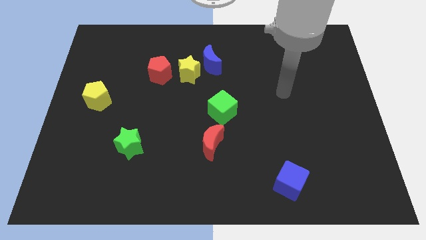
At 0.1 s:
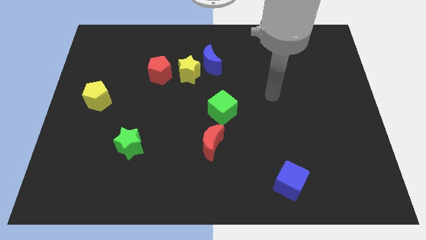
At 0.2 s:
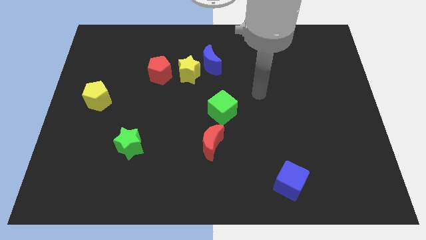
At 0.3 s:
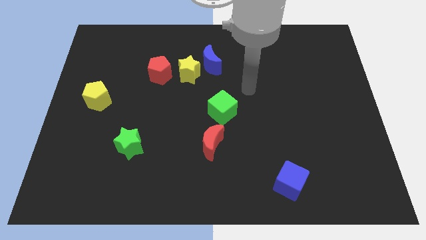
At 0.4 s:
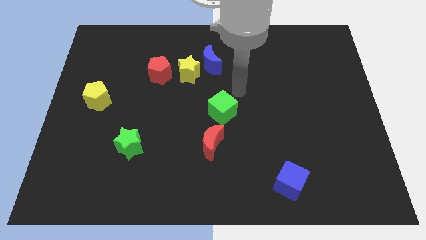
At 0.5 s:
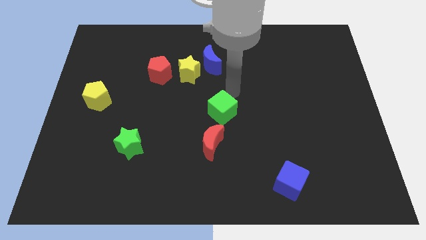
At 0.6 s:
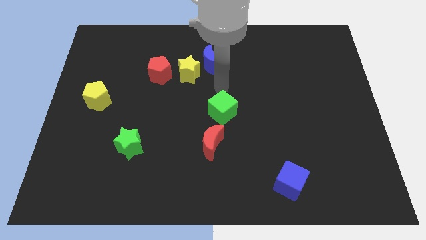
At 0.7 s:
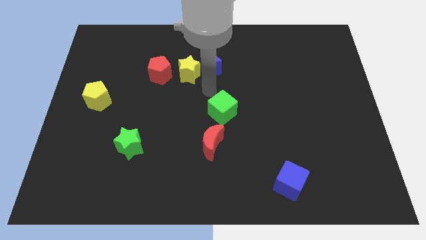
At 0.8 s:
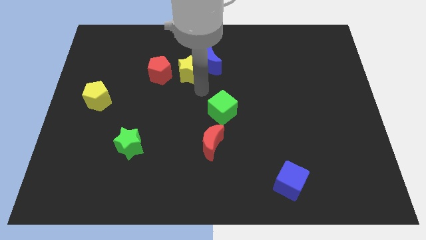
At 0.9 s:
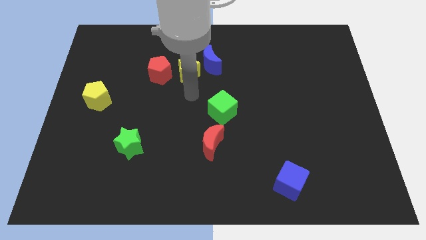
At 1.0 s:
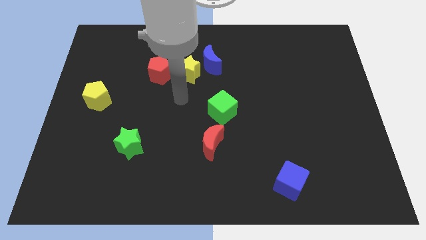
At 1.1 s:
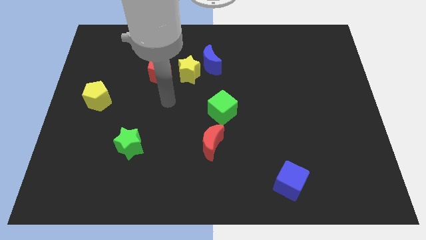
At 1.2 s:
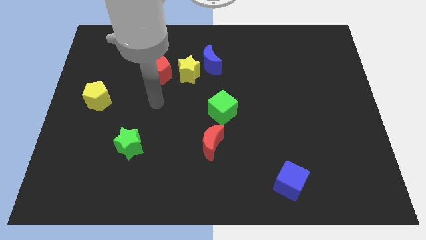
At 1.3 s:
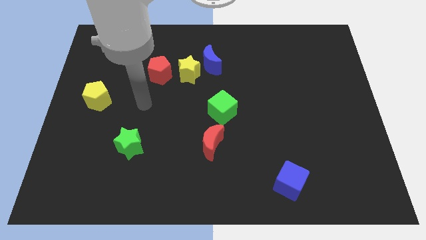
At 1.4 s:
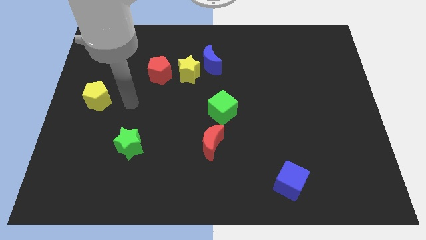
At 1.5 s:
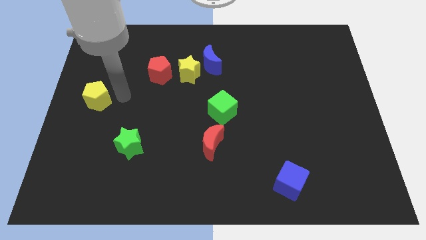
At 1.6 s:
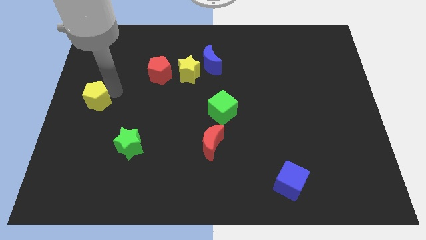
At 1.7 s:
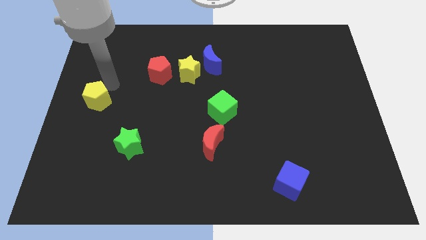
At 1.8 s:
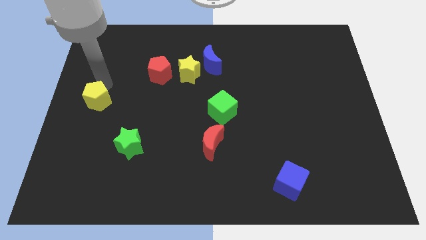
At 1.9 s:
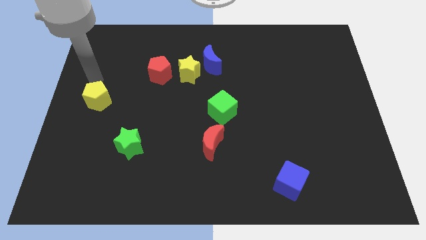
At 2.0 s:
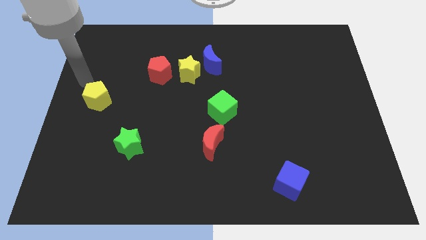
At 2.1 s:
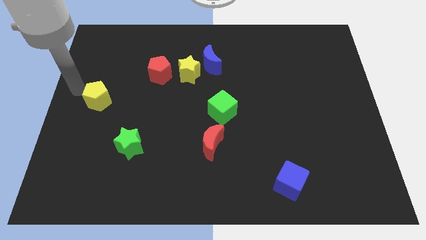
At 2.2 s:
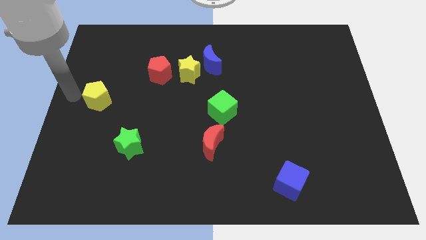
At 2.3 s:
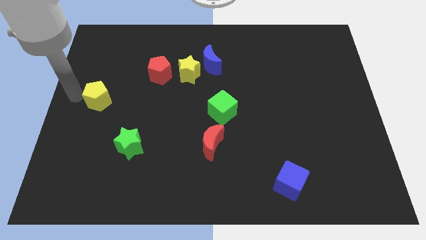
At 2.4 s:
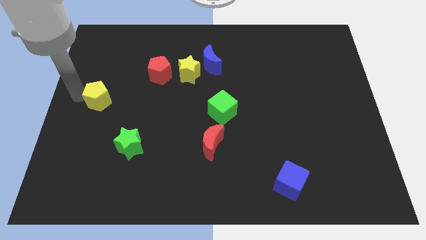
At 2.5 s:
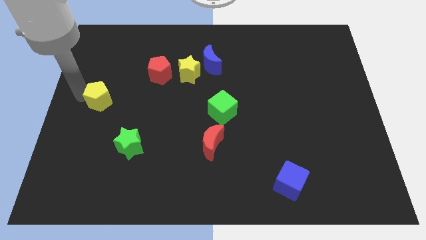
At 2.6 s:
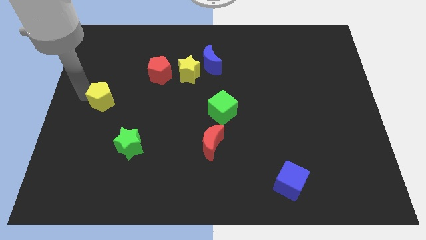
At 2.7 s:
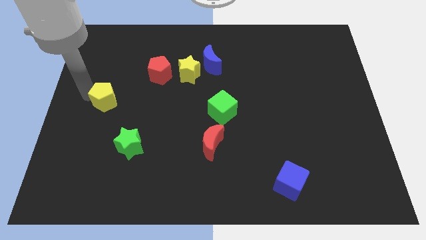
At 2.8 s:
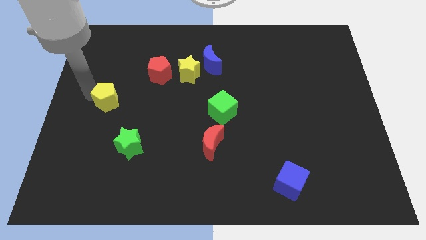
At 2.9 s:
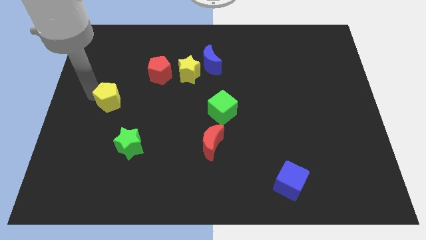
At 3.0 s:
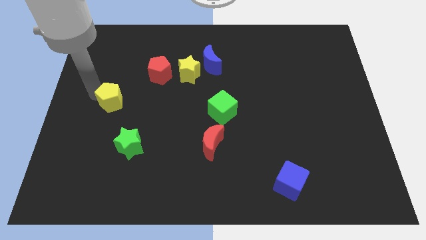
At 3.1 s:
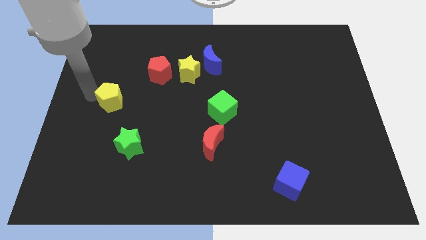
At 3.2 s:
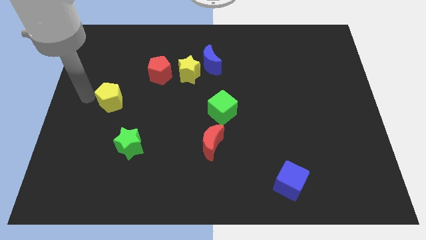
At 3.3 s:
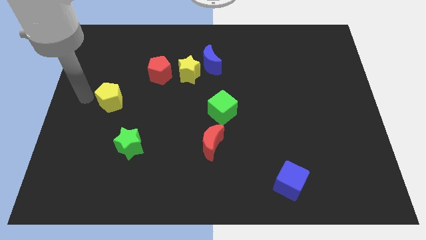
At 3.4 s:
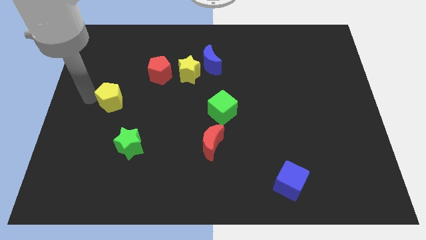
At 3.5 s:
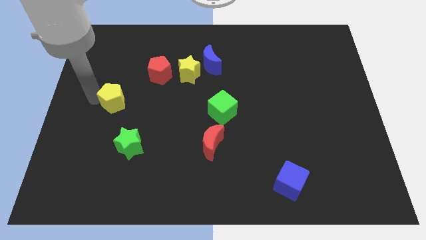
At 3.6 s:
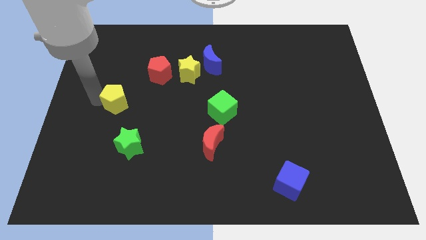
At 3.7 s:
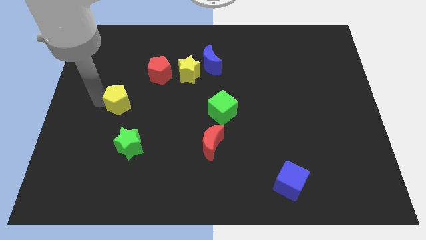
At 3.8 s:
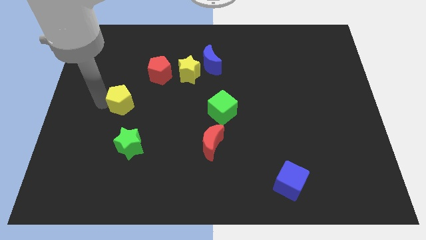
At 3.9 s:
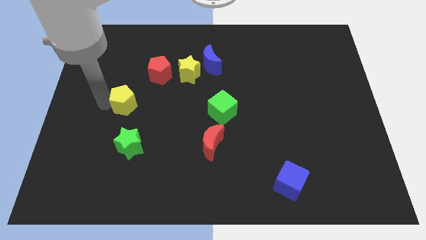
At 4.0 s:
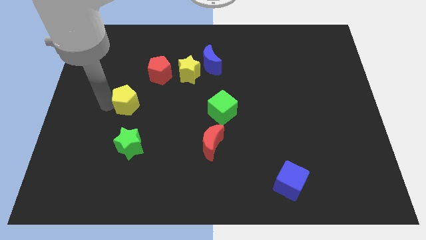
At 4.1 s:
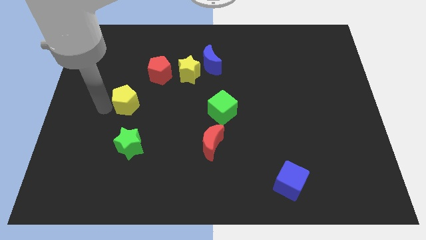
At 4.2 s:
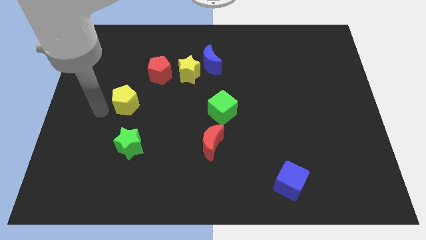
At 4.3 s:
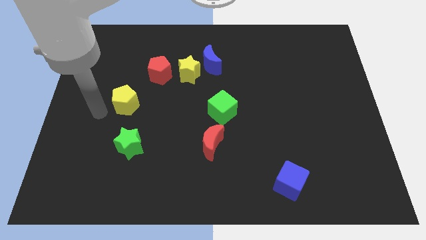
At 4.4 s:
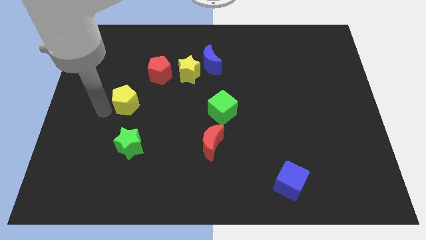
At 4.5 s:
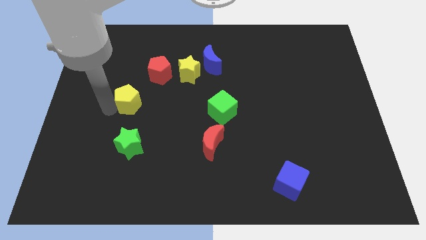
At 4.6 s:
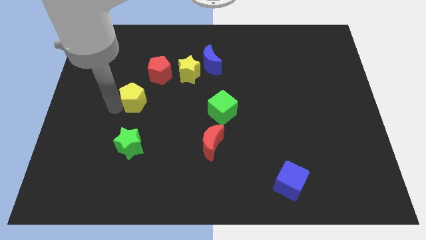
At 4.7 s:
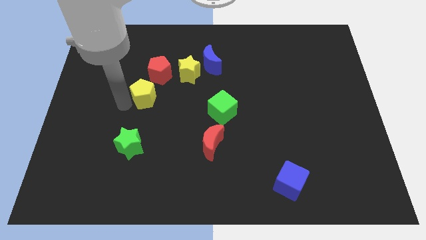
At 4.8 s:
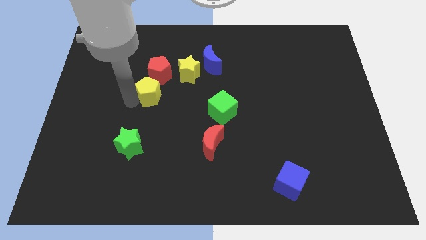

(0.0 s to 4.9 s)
move the yellow pentagon to the bottom left side of the yellow star

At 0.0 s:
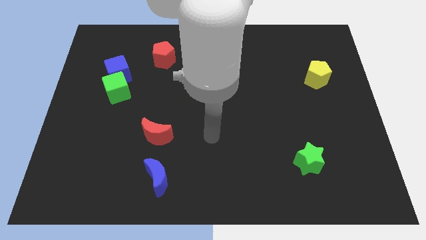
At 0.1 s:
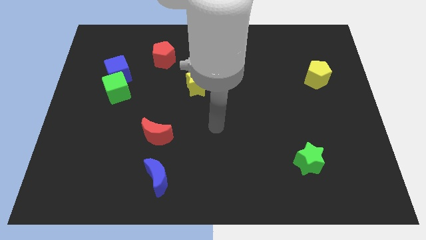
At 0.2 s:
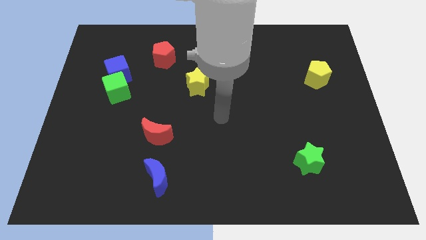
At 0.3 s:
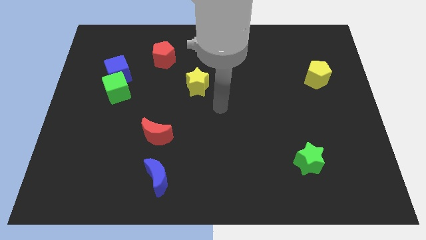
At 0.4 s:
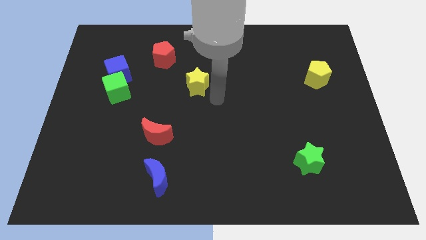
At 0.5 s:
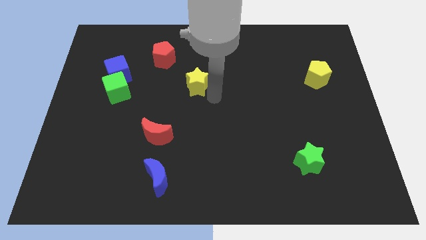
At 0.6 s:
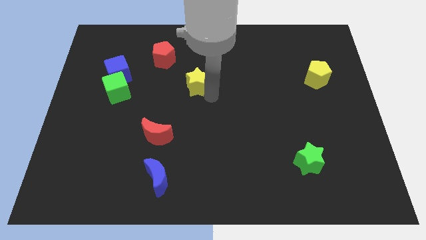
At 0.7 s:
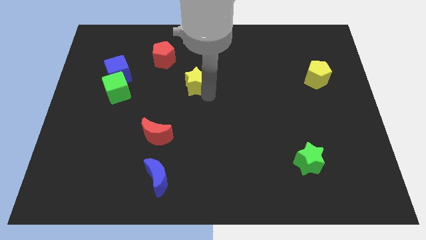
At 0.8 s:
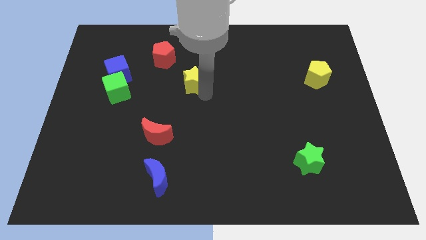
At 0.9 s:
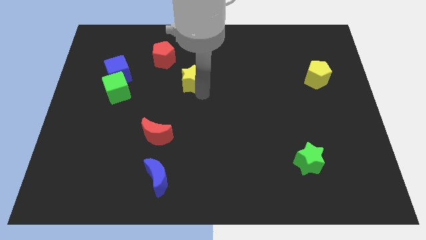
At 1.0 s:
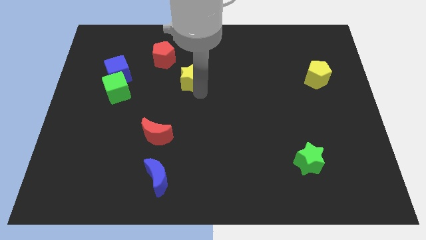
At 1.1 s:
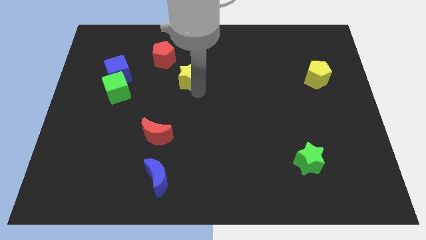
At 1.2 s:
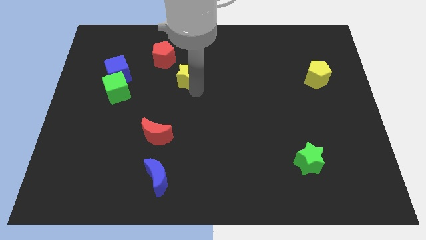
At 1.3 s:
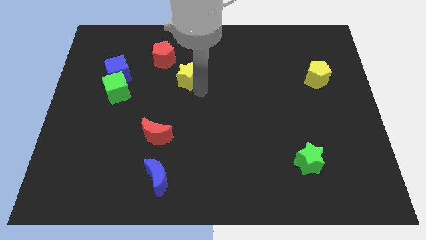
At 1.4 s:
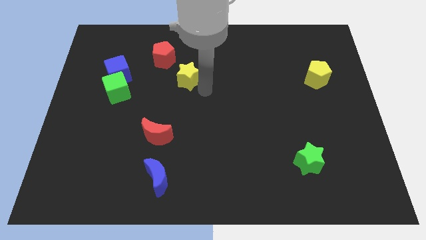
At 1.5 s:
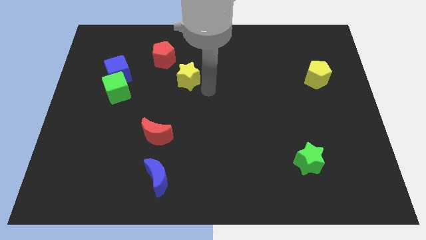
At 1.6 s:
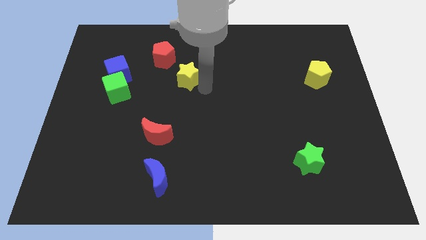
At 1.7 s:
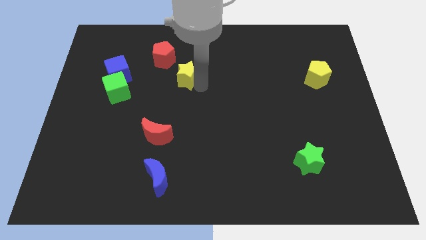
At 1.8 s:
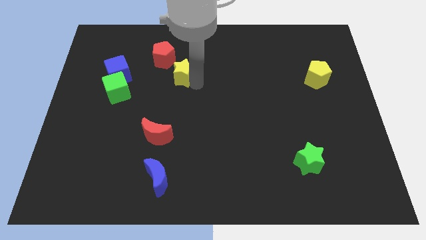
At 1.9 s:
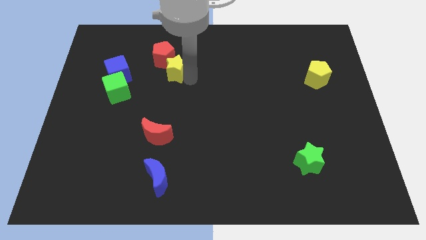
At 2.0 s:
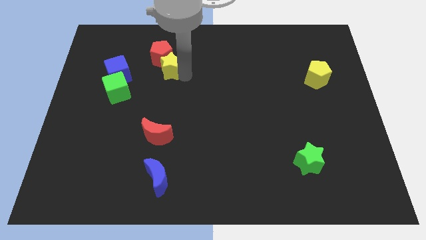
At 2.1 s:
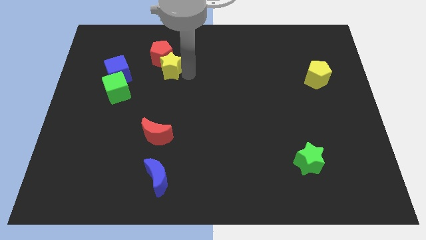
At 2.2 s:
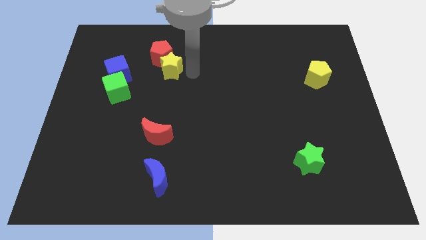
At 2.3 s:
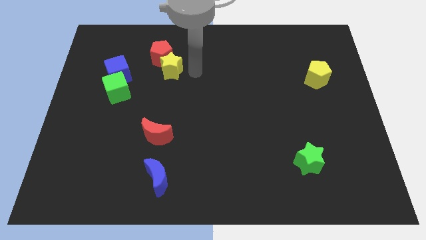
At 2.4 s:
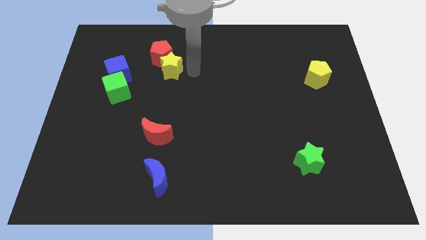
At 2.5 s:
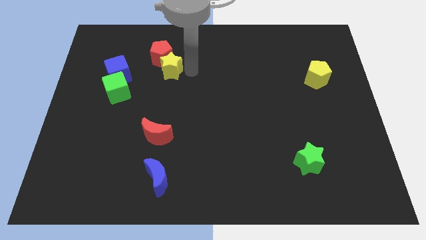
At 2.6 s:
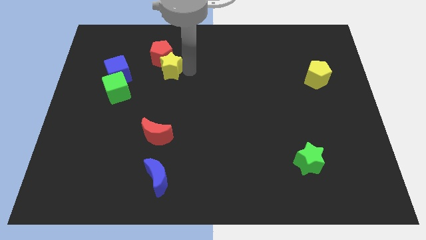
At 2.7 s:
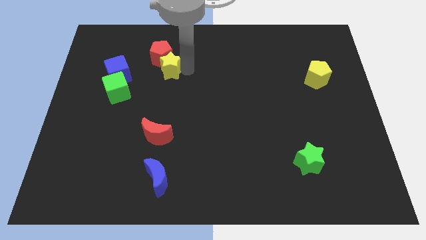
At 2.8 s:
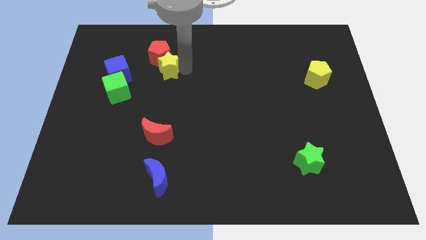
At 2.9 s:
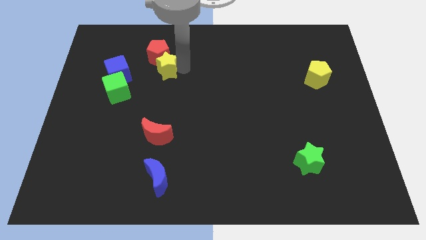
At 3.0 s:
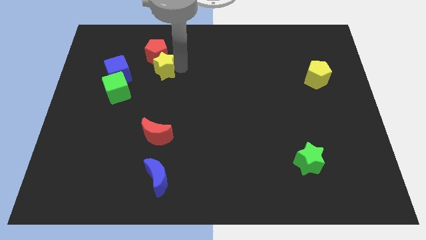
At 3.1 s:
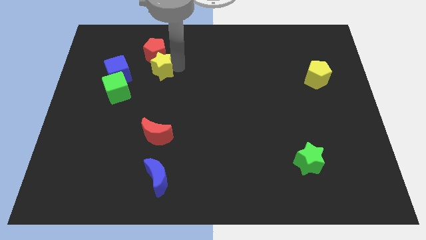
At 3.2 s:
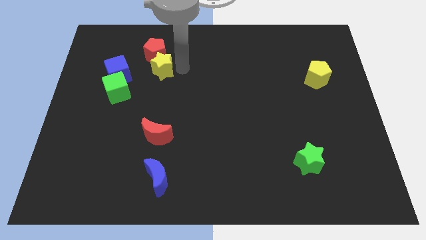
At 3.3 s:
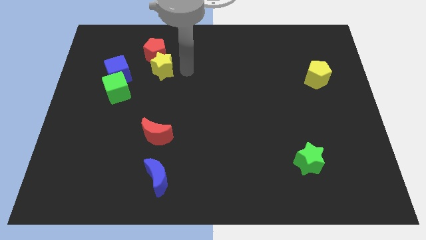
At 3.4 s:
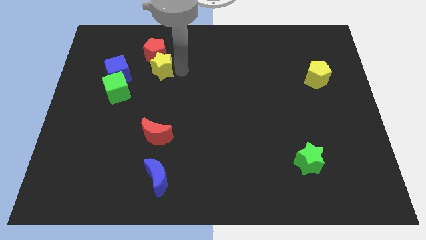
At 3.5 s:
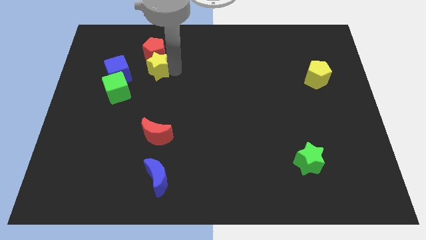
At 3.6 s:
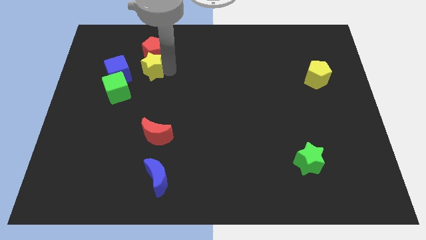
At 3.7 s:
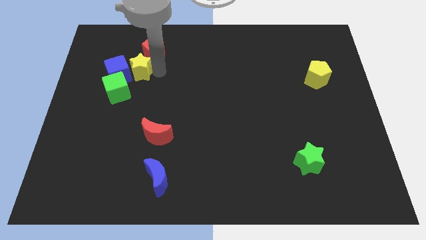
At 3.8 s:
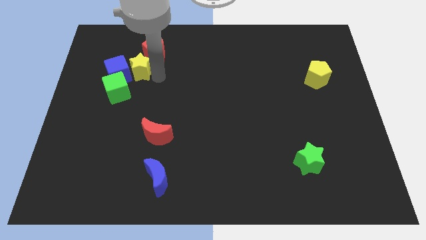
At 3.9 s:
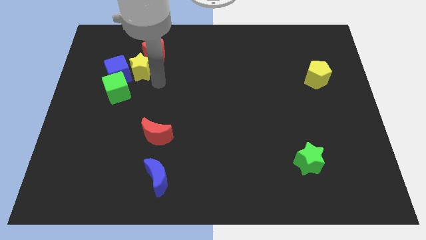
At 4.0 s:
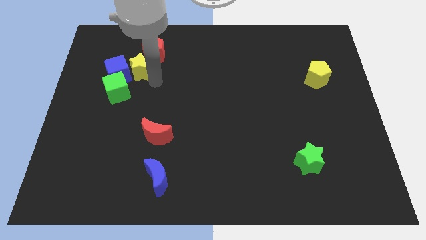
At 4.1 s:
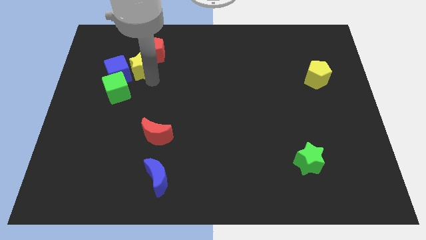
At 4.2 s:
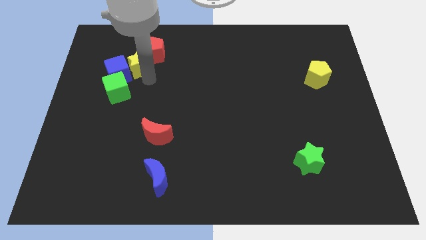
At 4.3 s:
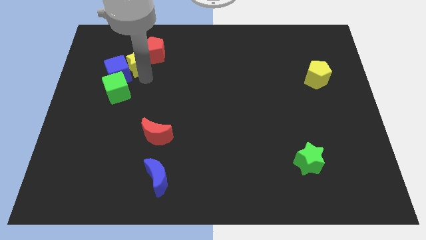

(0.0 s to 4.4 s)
slide the yellow star left of the red pentagon
